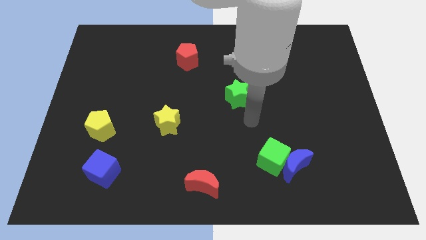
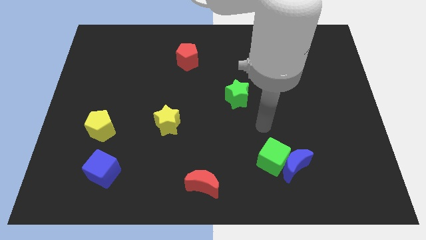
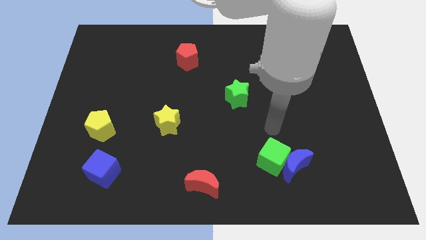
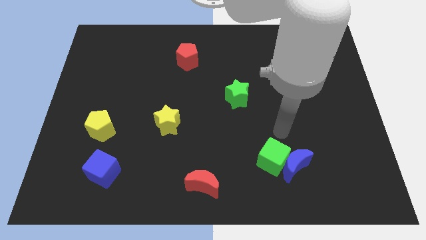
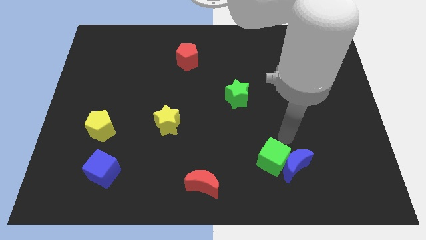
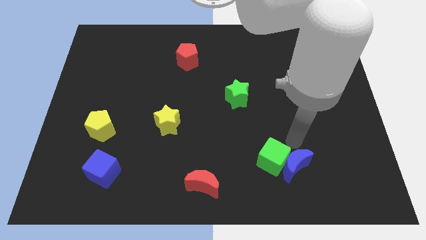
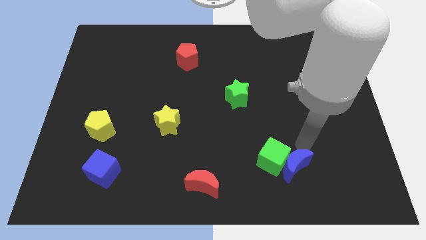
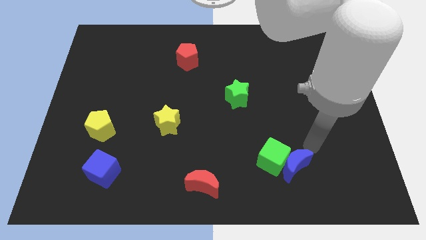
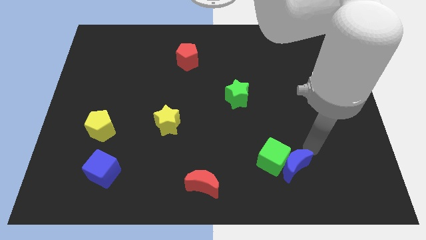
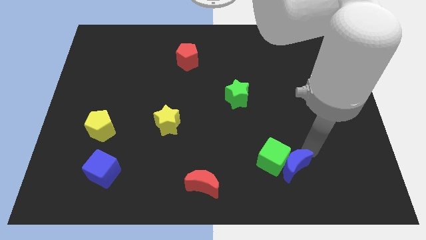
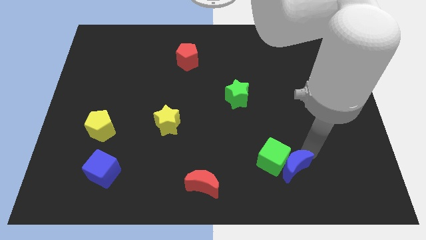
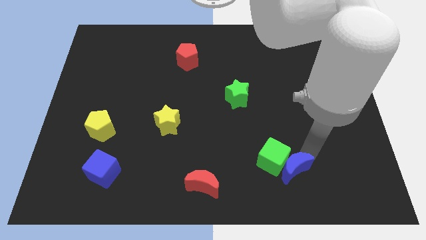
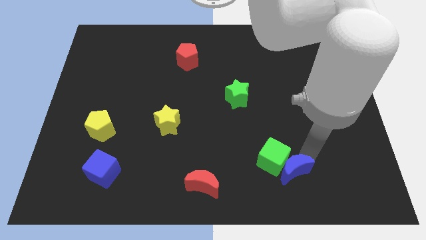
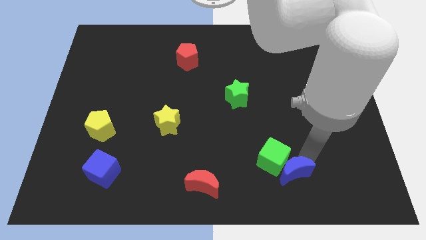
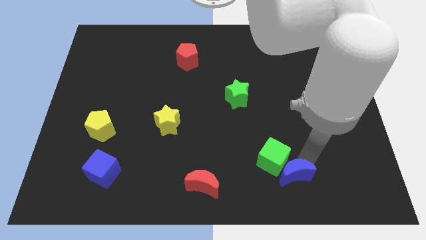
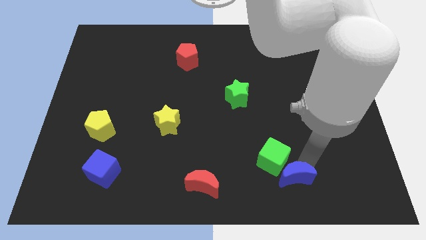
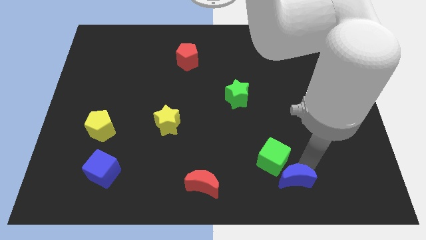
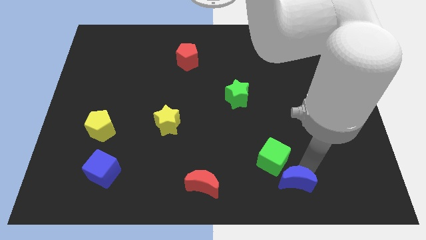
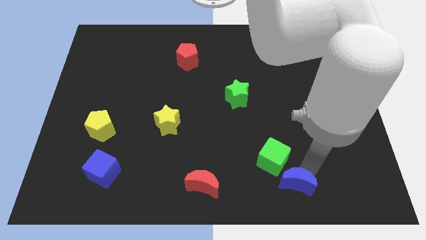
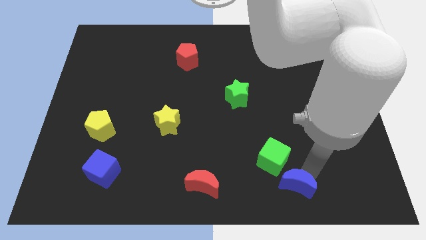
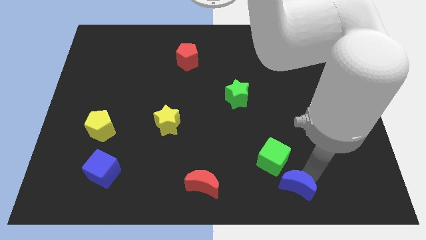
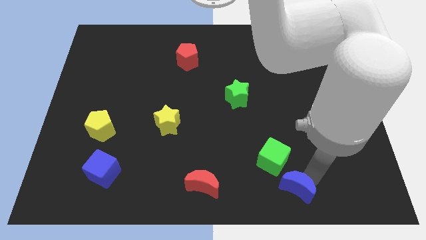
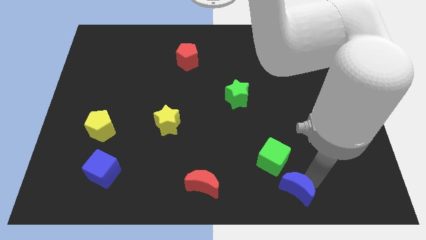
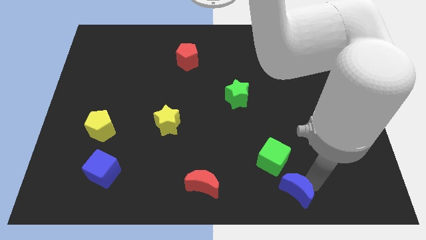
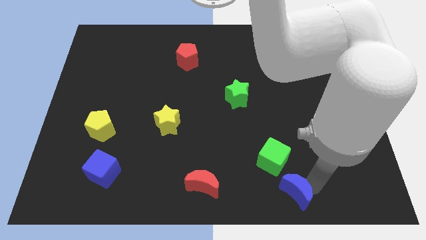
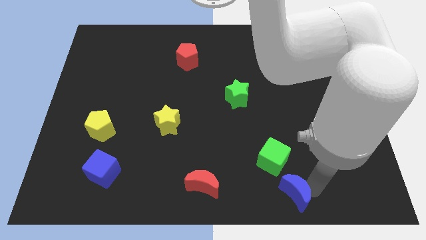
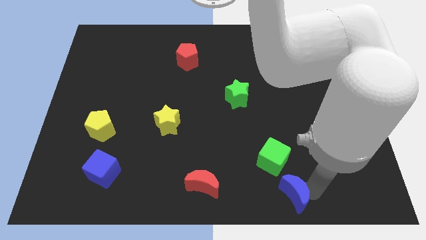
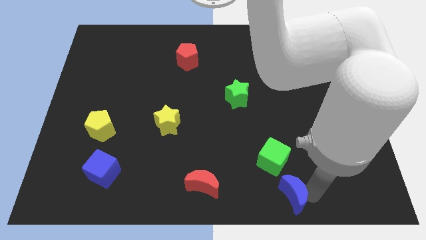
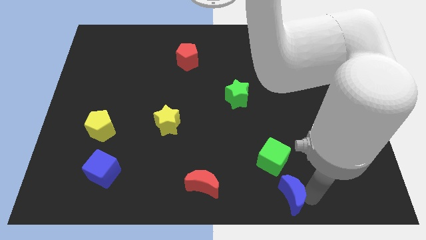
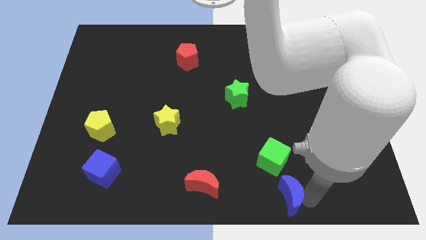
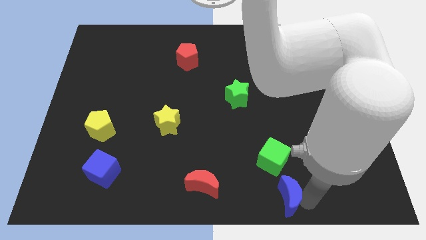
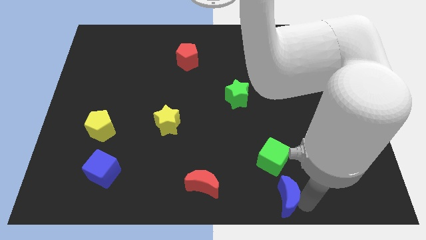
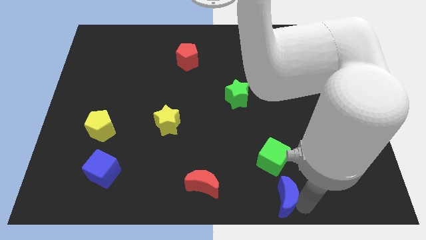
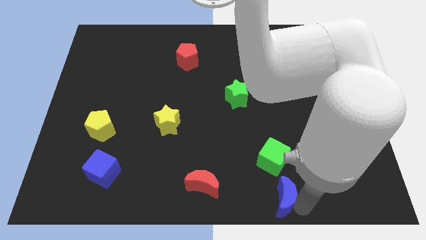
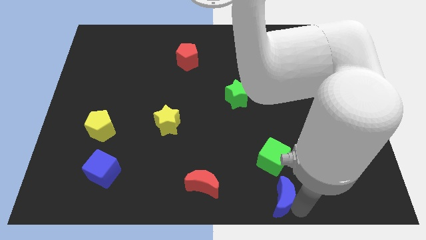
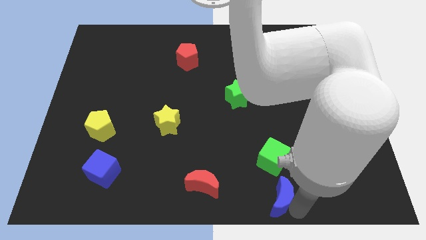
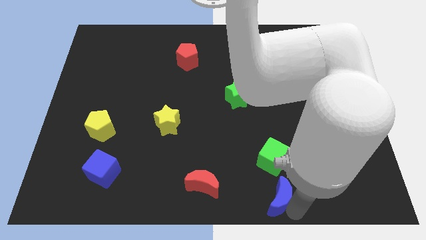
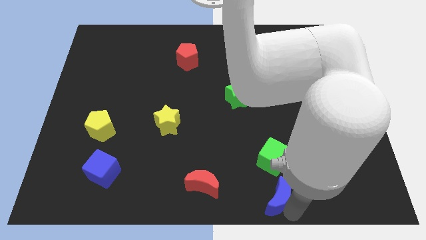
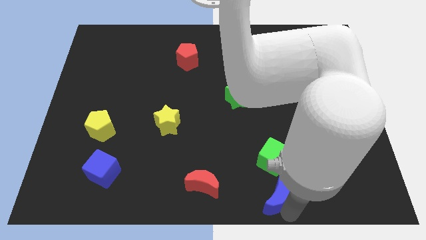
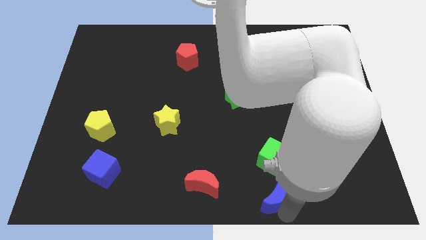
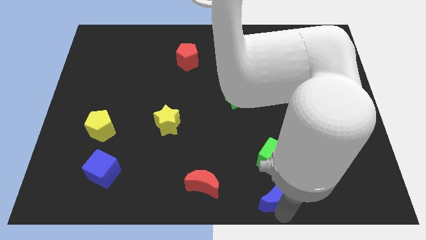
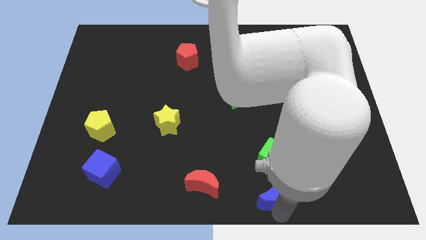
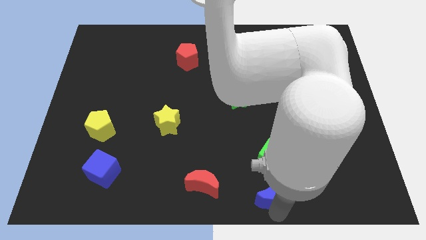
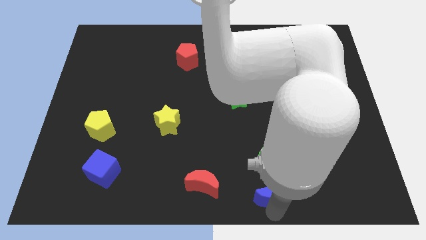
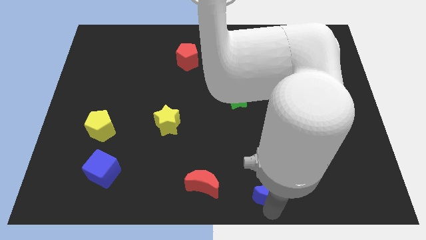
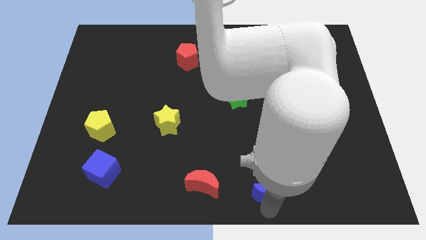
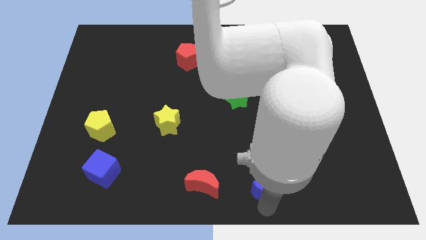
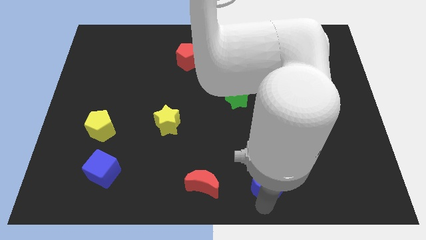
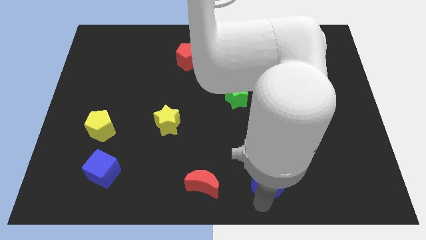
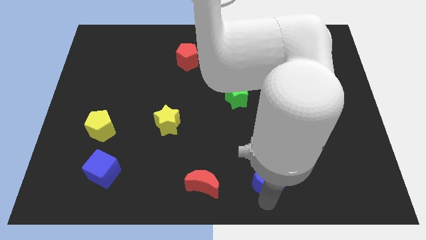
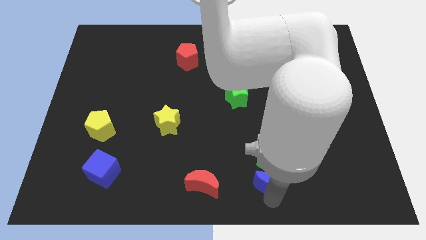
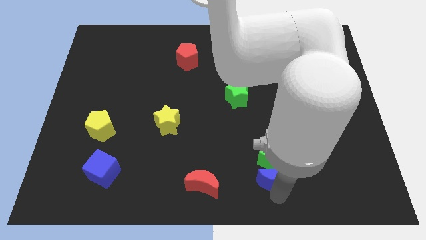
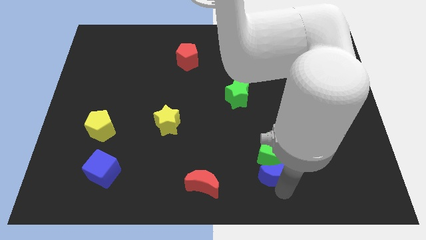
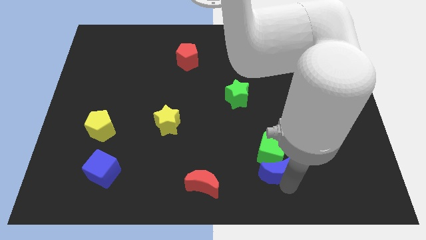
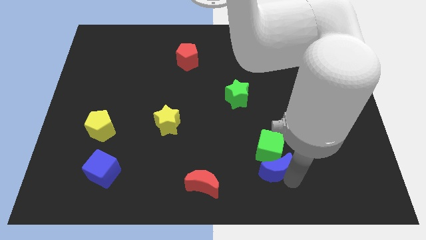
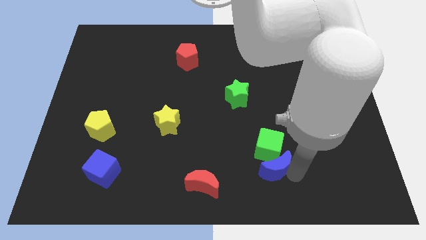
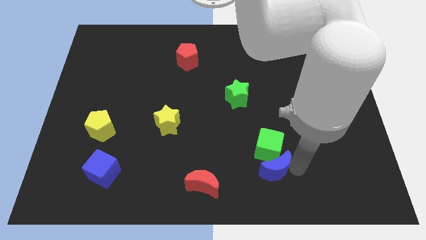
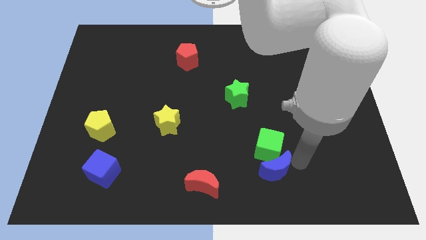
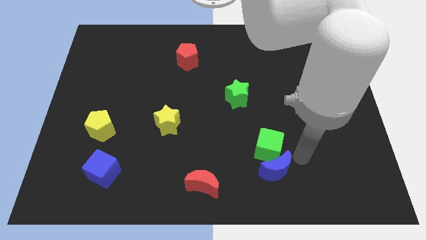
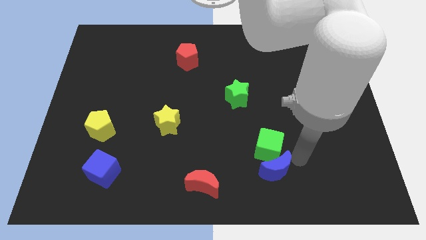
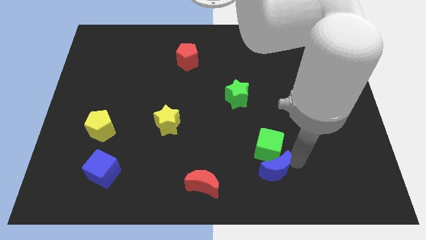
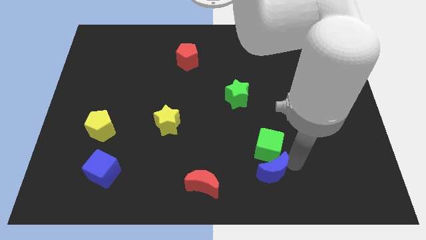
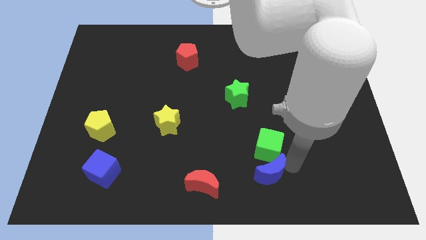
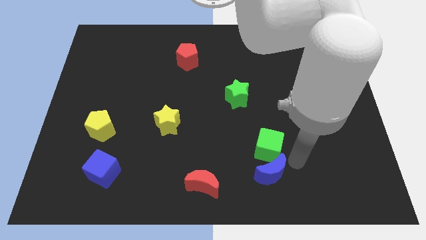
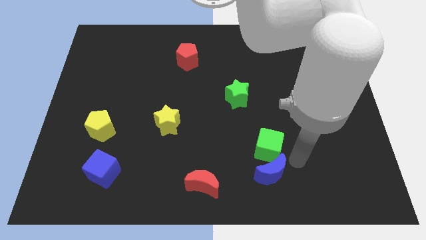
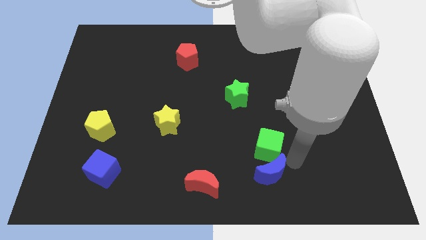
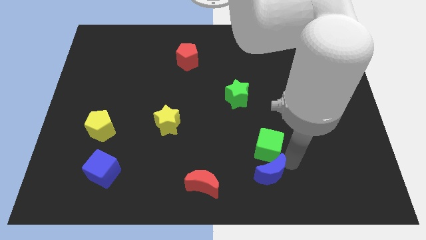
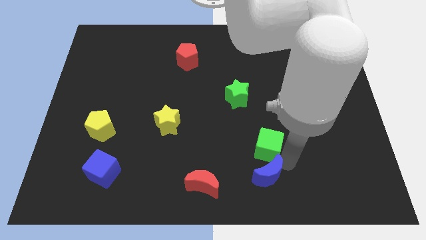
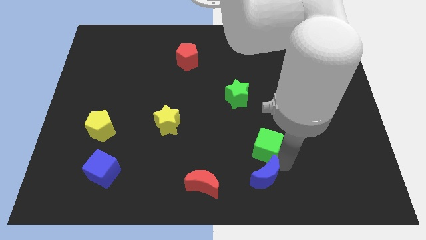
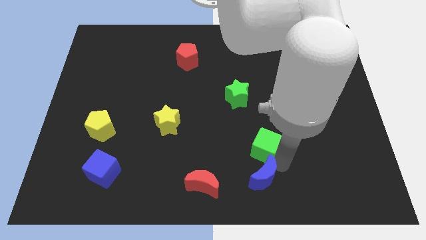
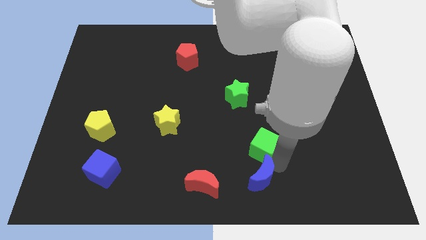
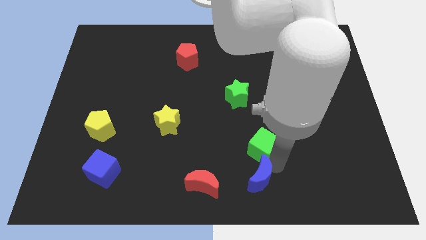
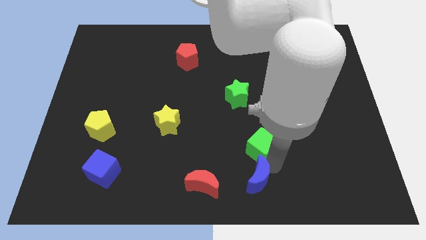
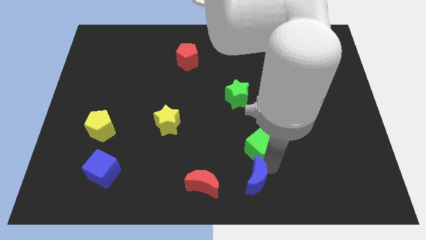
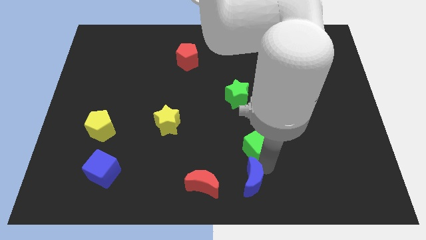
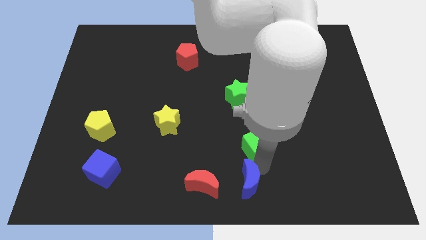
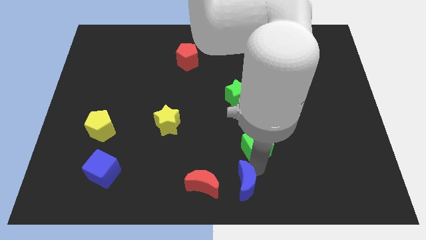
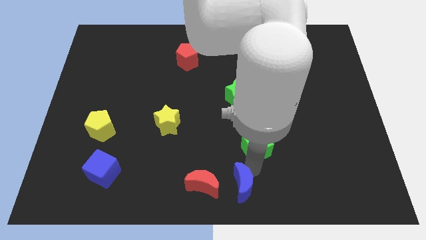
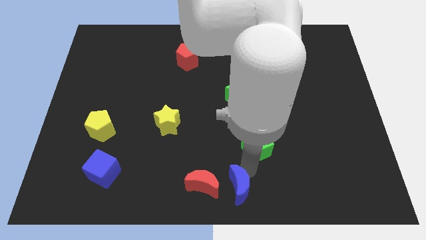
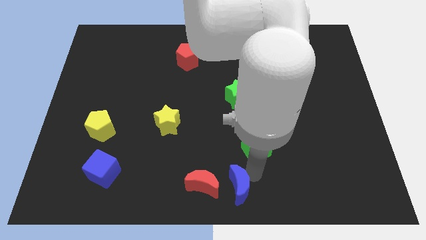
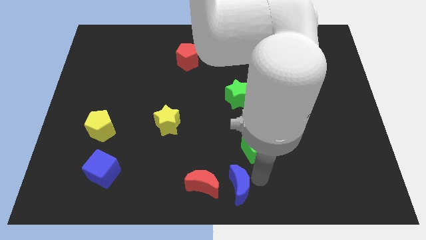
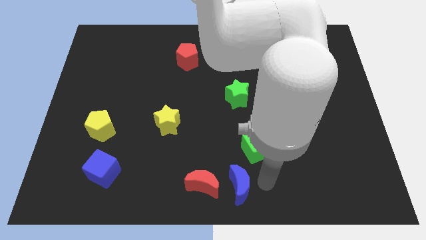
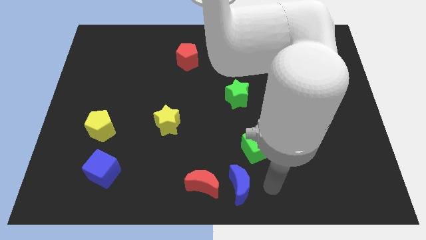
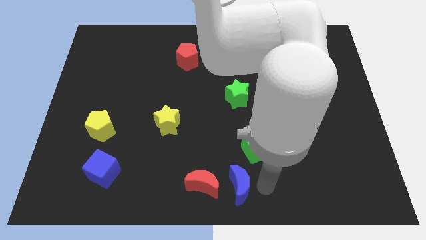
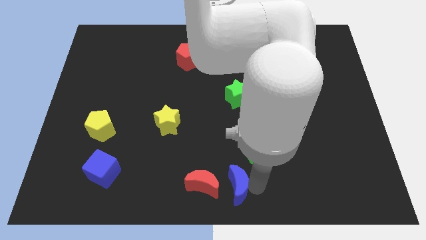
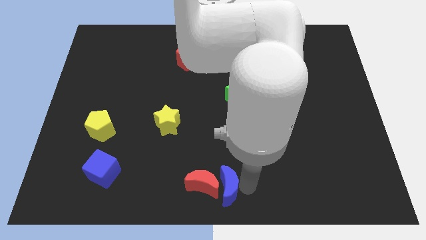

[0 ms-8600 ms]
put the blue moon close to the red moon
